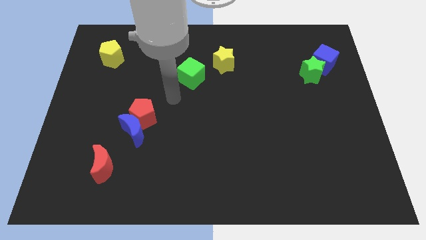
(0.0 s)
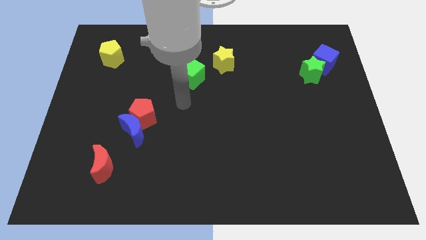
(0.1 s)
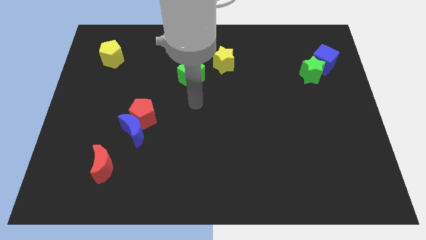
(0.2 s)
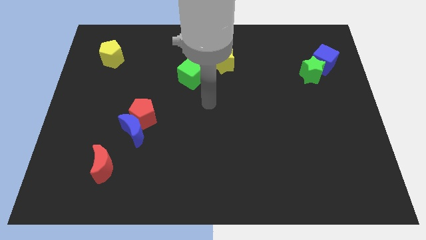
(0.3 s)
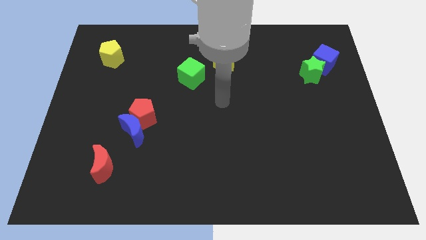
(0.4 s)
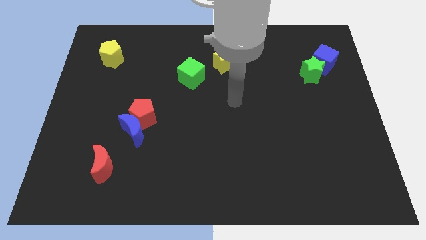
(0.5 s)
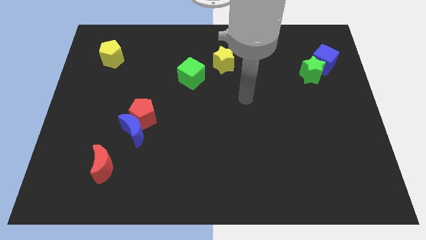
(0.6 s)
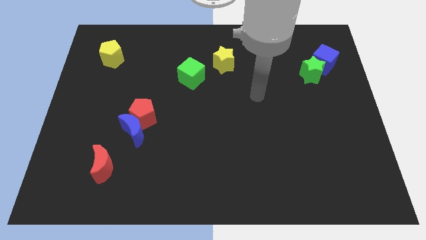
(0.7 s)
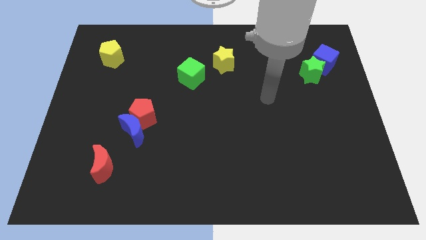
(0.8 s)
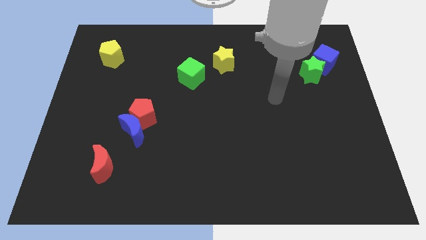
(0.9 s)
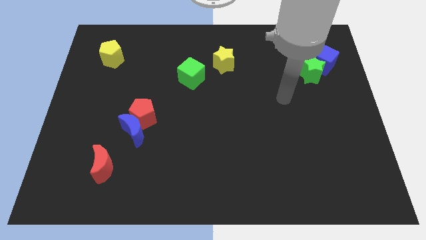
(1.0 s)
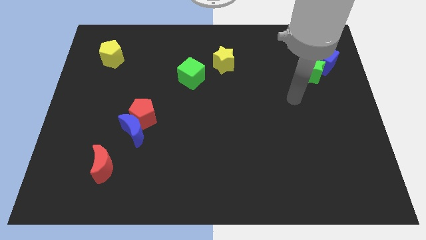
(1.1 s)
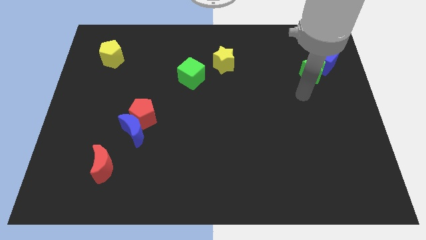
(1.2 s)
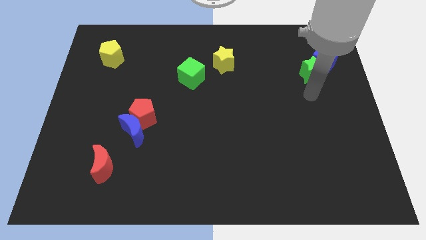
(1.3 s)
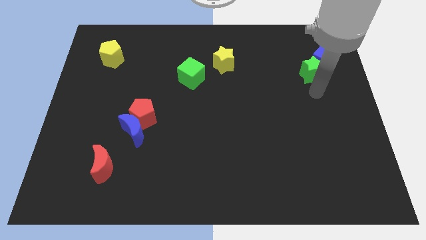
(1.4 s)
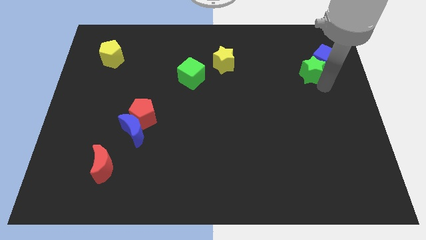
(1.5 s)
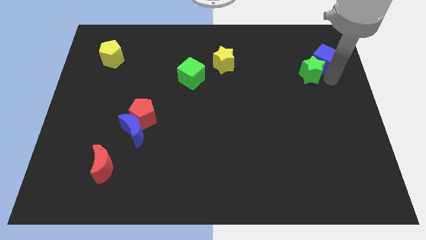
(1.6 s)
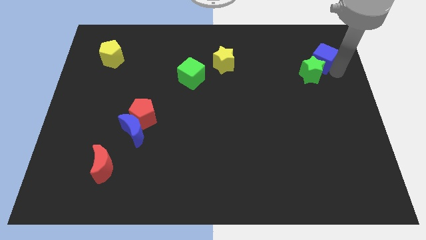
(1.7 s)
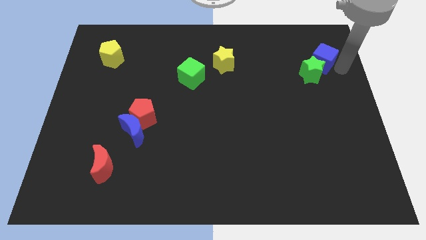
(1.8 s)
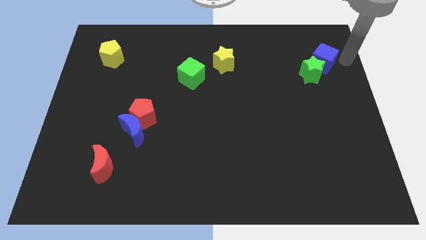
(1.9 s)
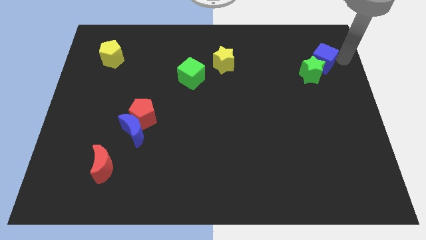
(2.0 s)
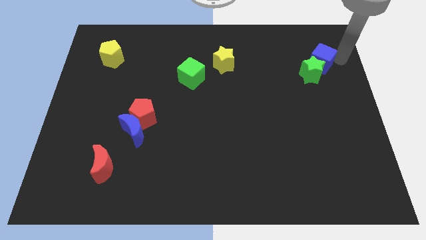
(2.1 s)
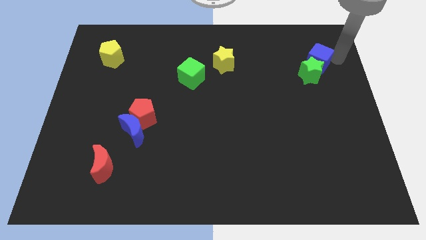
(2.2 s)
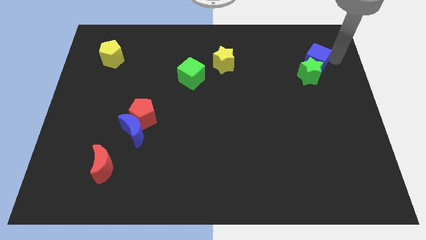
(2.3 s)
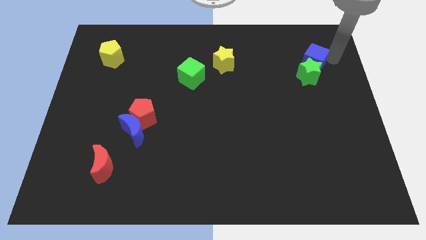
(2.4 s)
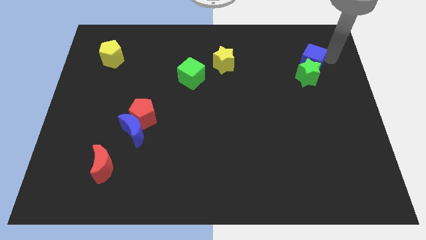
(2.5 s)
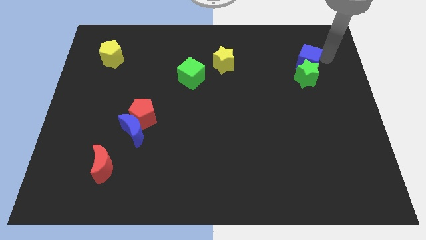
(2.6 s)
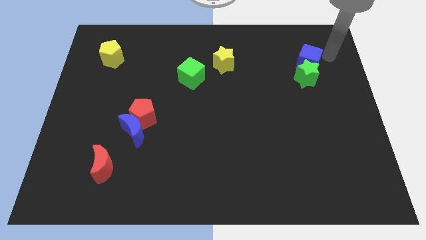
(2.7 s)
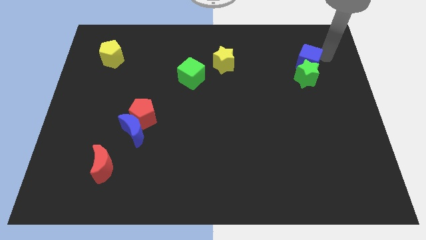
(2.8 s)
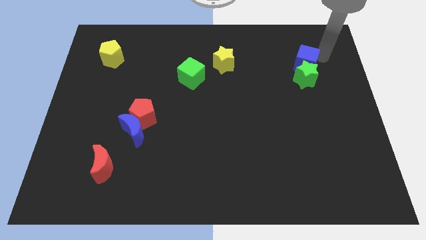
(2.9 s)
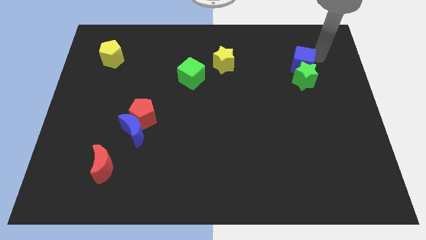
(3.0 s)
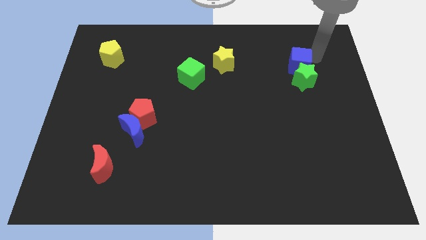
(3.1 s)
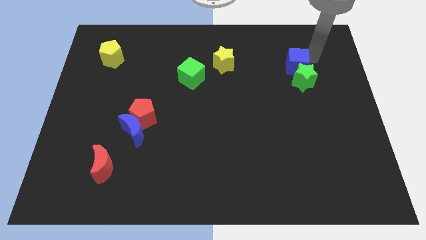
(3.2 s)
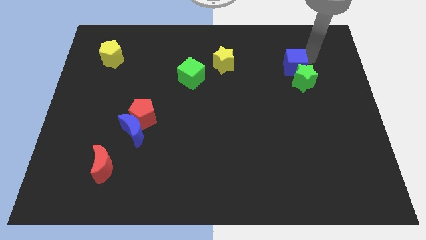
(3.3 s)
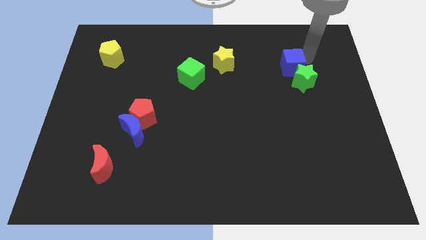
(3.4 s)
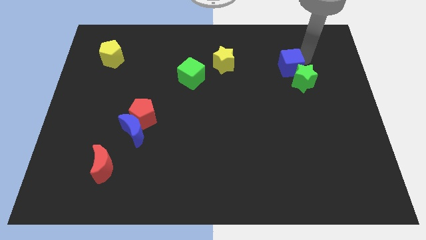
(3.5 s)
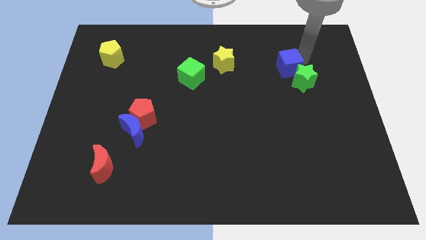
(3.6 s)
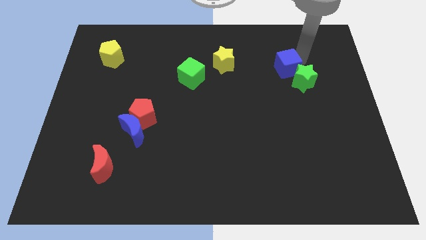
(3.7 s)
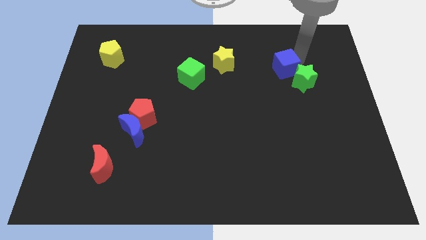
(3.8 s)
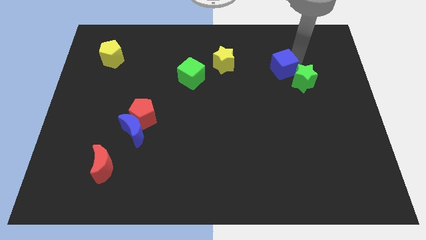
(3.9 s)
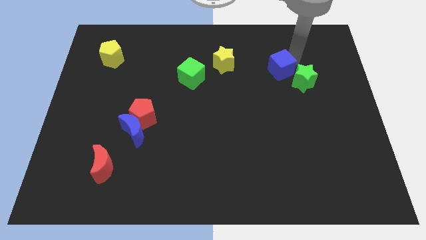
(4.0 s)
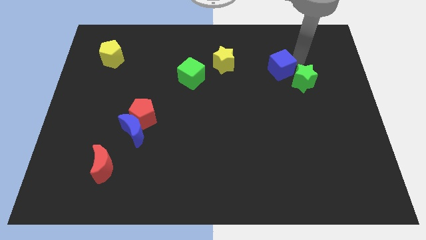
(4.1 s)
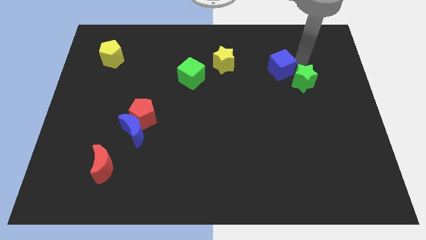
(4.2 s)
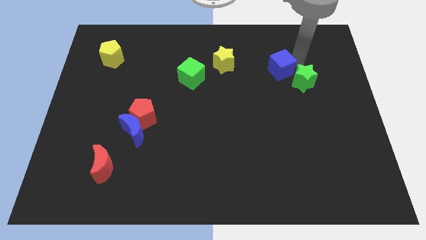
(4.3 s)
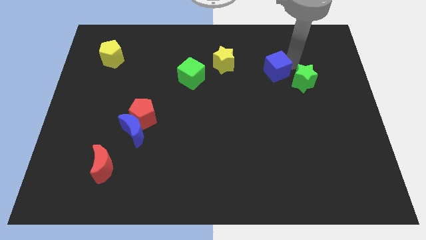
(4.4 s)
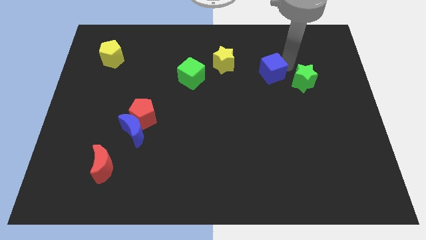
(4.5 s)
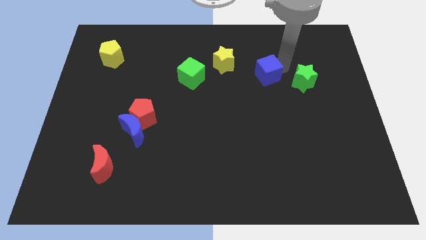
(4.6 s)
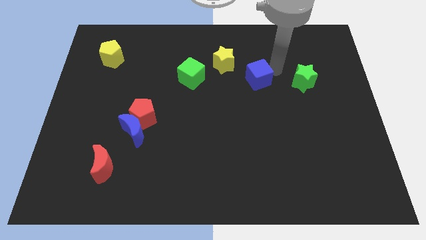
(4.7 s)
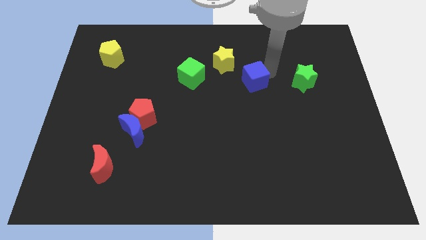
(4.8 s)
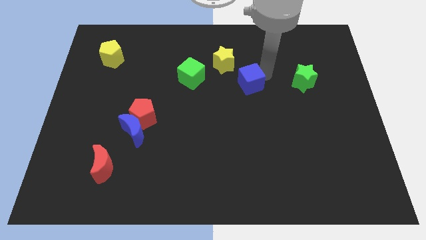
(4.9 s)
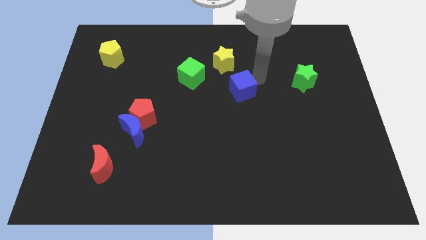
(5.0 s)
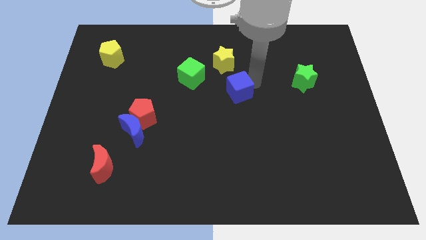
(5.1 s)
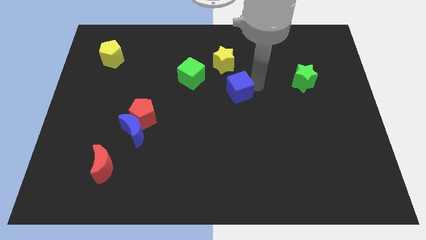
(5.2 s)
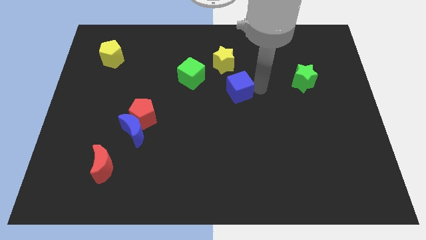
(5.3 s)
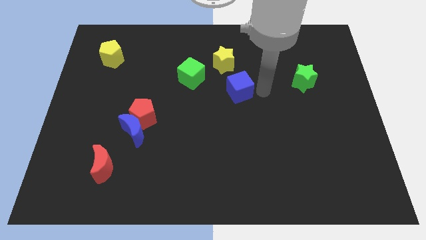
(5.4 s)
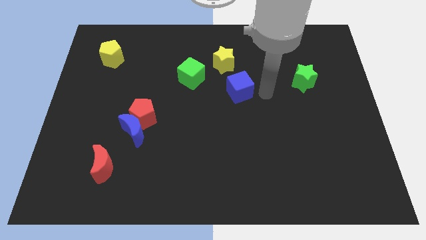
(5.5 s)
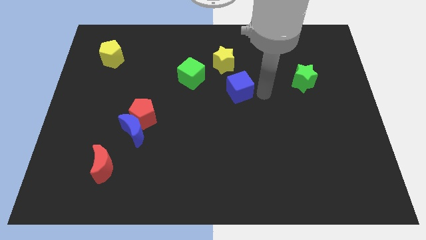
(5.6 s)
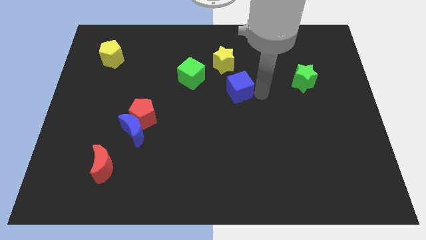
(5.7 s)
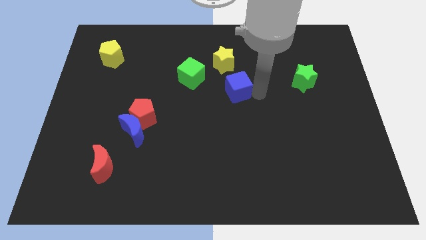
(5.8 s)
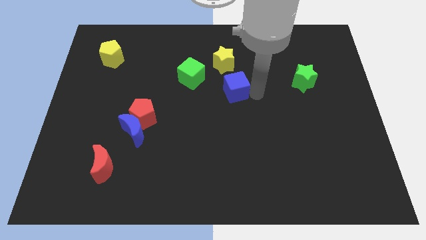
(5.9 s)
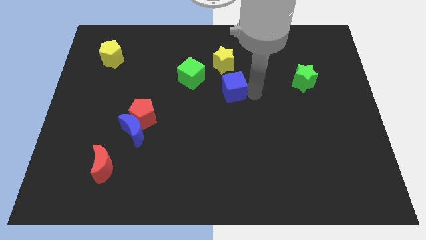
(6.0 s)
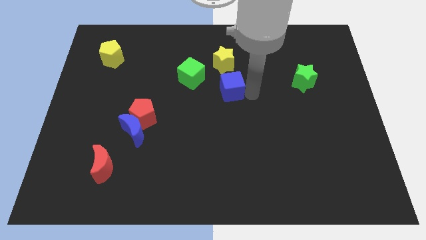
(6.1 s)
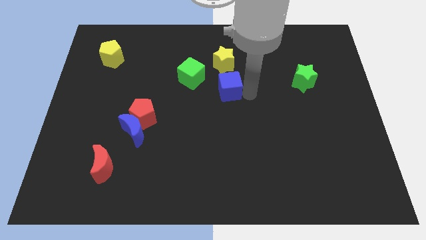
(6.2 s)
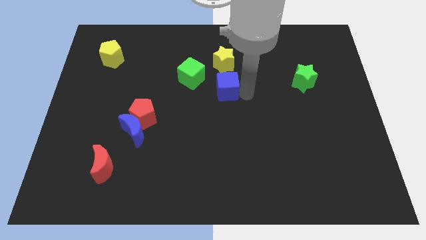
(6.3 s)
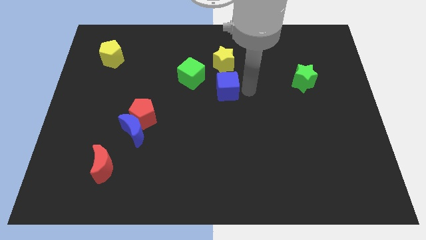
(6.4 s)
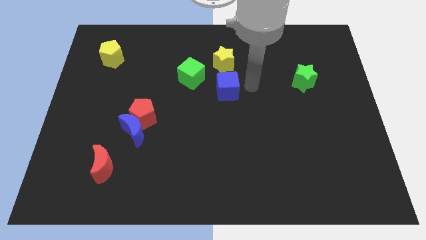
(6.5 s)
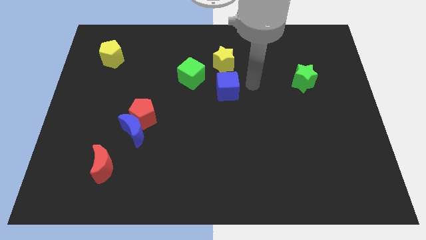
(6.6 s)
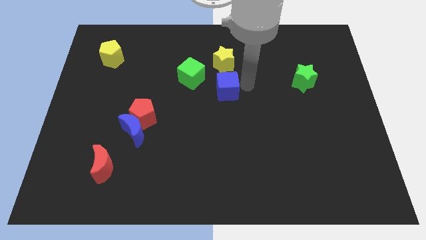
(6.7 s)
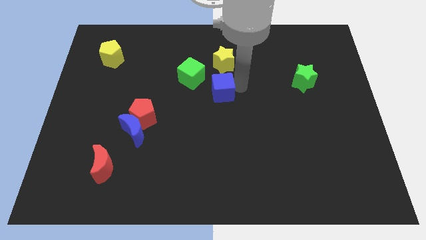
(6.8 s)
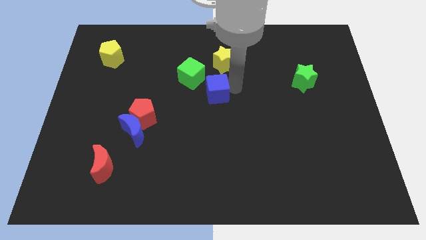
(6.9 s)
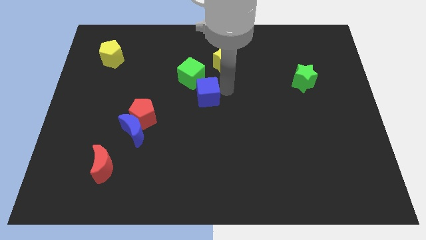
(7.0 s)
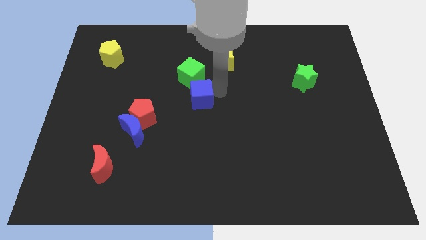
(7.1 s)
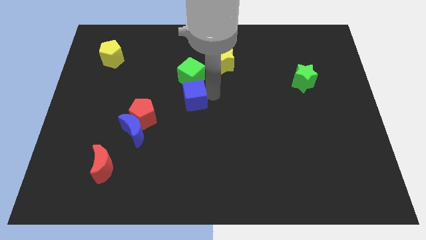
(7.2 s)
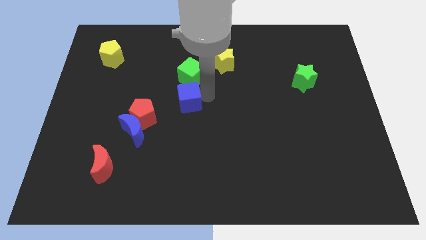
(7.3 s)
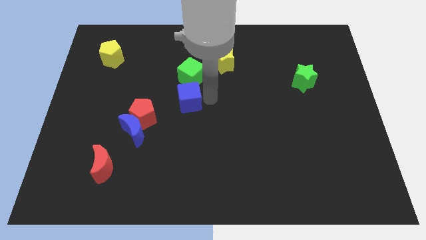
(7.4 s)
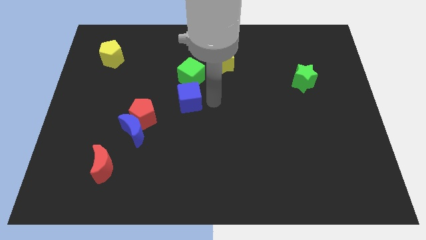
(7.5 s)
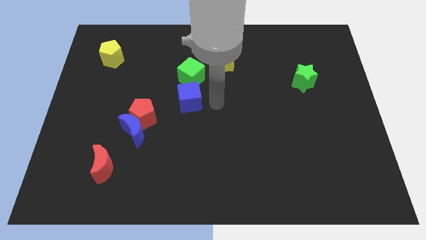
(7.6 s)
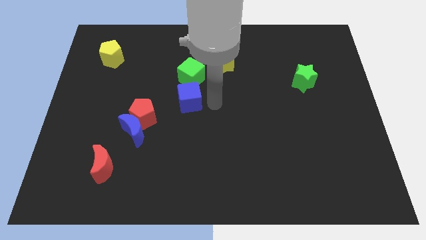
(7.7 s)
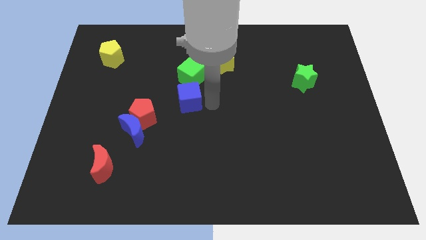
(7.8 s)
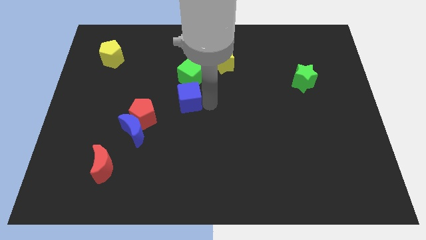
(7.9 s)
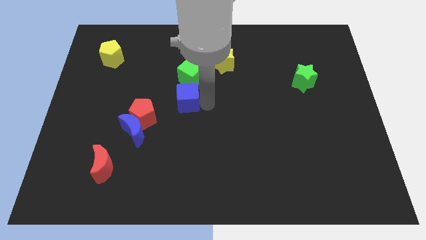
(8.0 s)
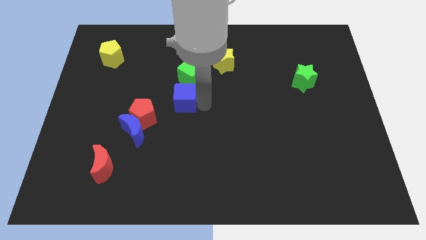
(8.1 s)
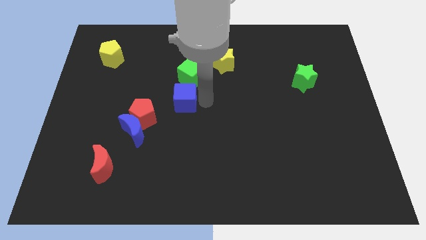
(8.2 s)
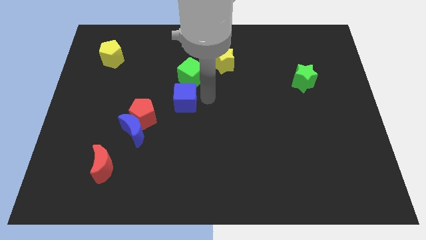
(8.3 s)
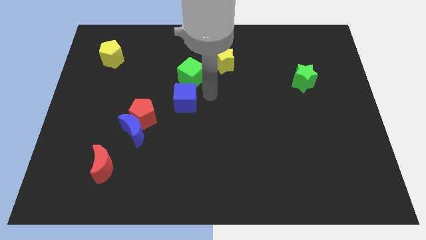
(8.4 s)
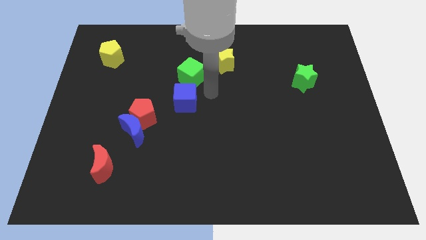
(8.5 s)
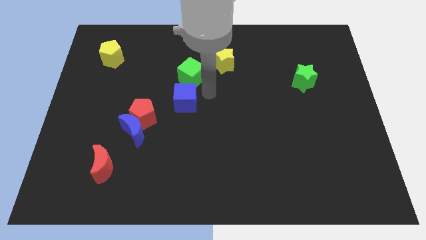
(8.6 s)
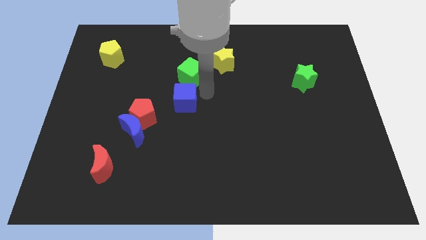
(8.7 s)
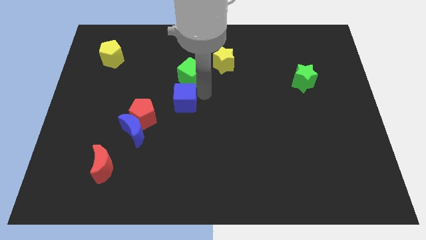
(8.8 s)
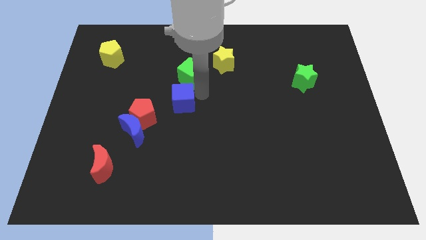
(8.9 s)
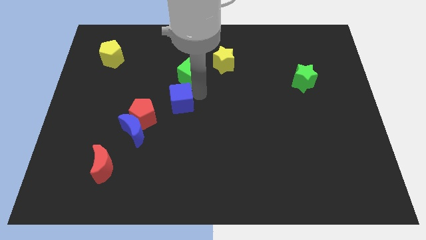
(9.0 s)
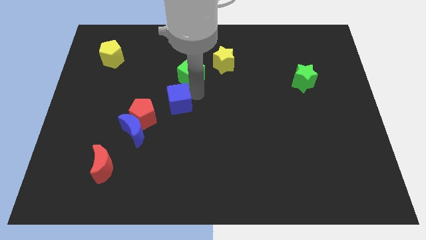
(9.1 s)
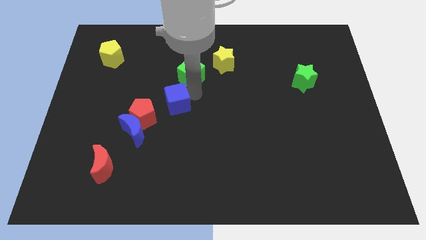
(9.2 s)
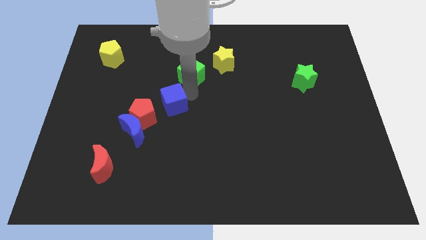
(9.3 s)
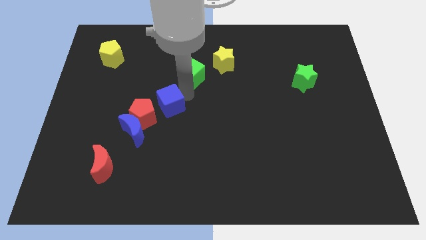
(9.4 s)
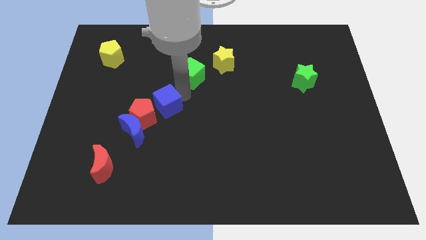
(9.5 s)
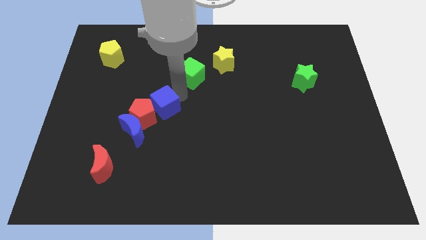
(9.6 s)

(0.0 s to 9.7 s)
move the blue cube close to the red pentagon
